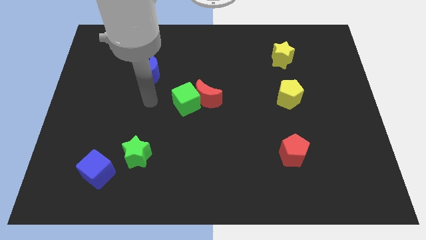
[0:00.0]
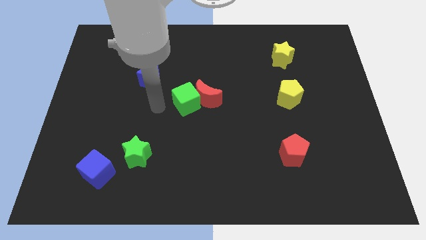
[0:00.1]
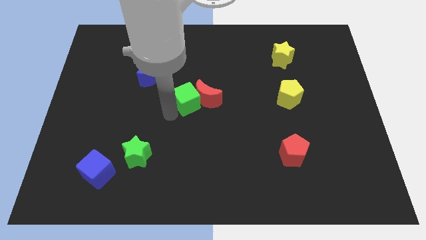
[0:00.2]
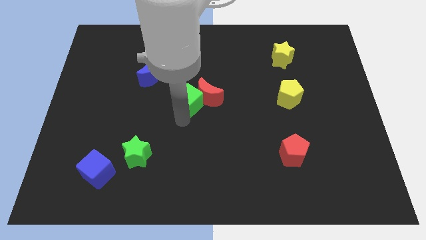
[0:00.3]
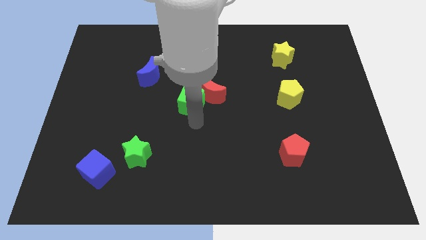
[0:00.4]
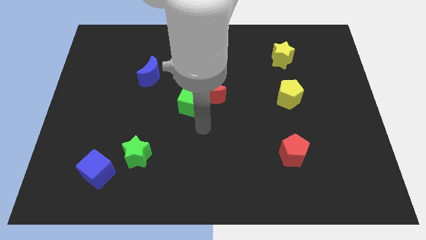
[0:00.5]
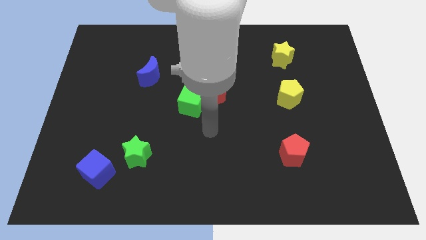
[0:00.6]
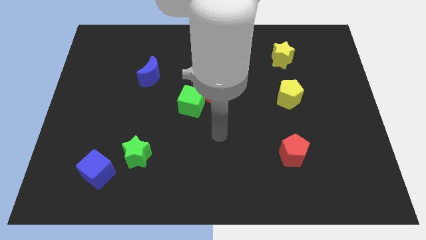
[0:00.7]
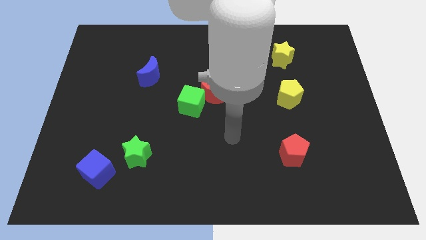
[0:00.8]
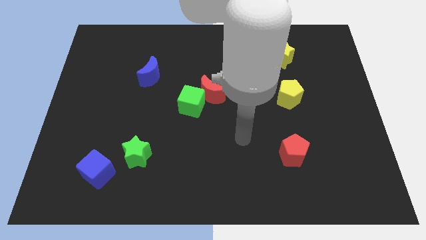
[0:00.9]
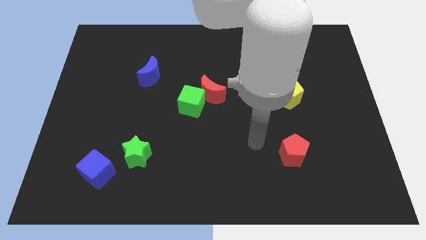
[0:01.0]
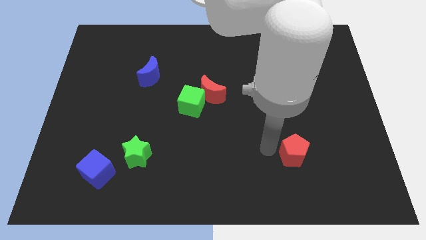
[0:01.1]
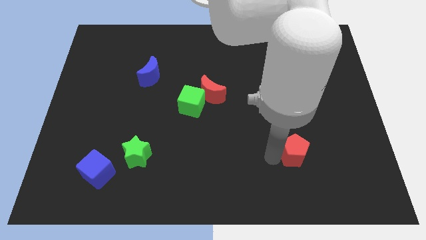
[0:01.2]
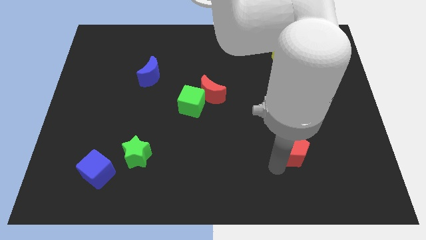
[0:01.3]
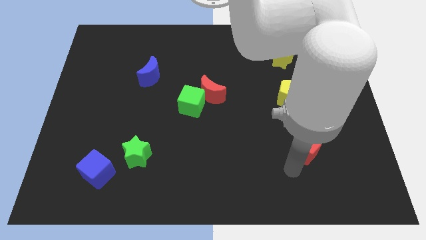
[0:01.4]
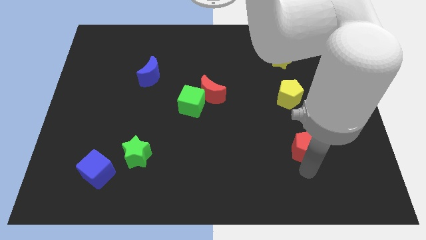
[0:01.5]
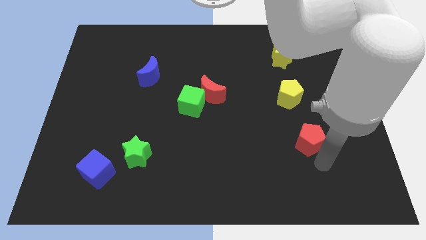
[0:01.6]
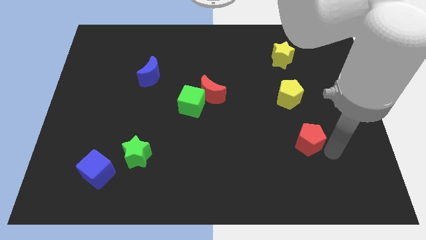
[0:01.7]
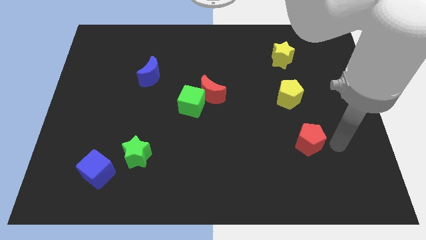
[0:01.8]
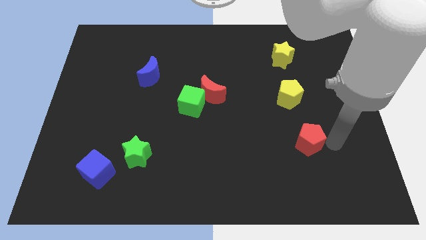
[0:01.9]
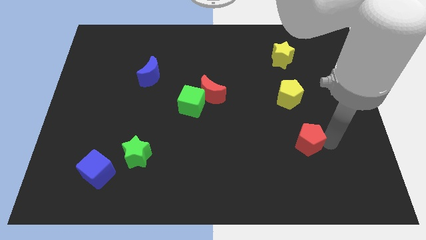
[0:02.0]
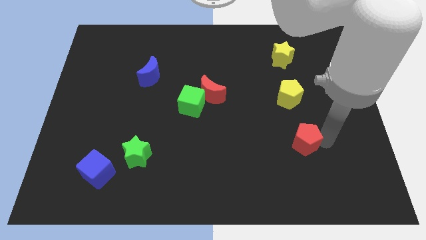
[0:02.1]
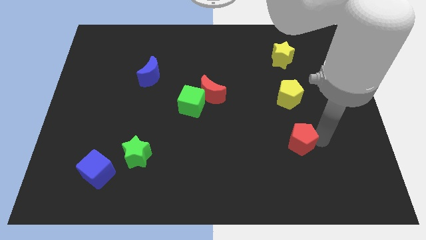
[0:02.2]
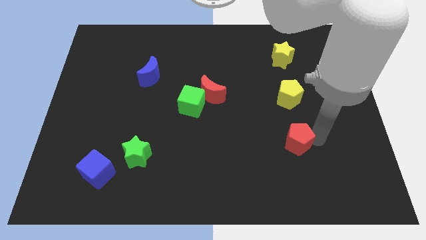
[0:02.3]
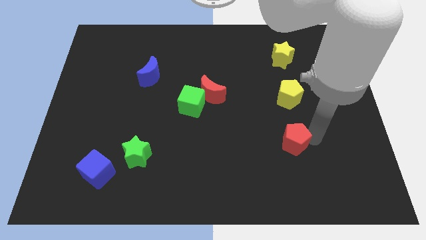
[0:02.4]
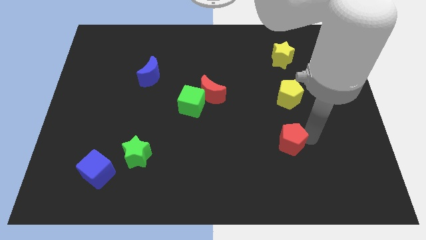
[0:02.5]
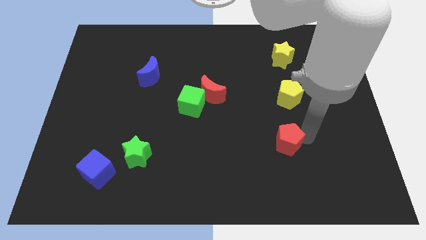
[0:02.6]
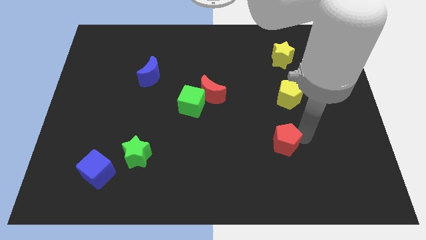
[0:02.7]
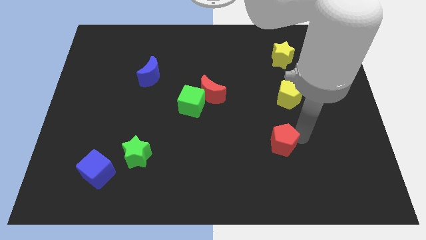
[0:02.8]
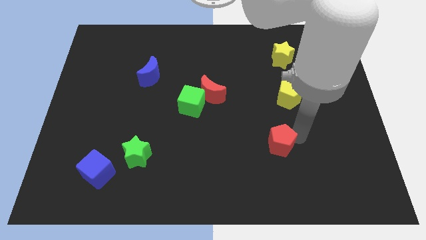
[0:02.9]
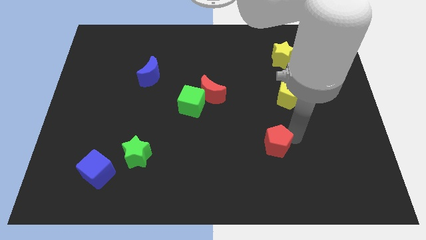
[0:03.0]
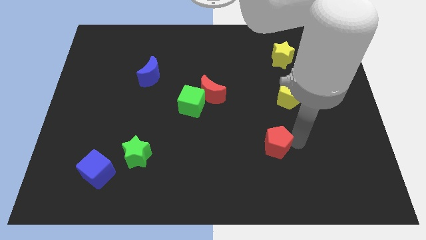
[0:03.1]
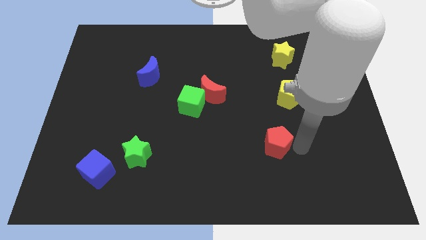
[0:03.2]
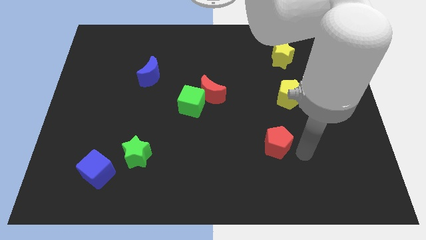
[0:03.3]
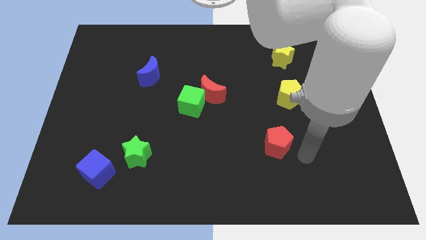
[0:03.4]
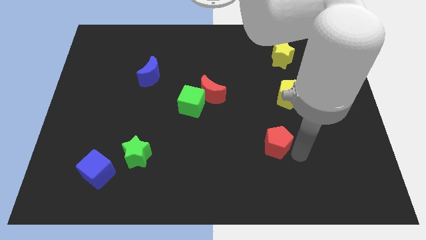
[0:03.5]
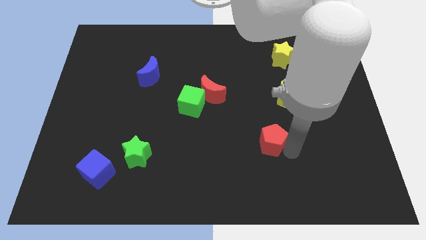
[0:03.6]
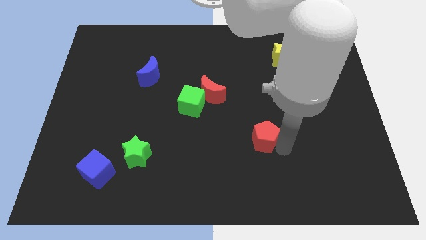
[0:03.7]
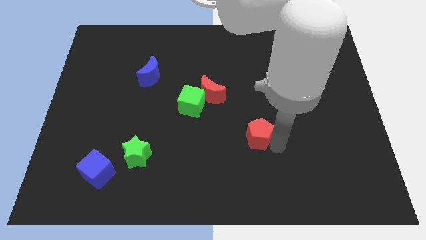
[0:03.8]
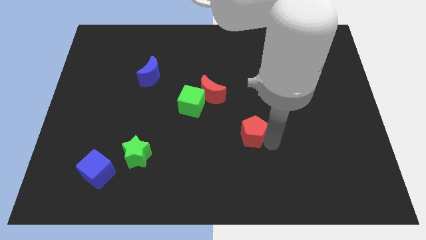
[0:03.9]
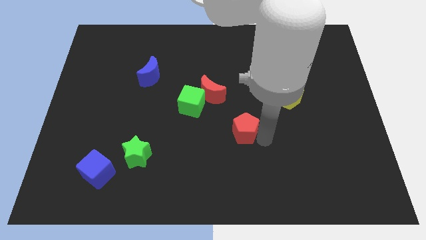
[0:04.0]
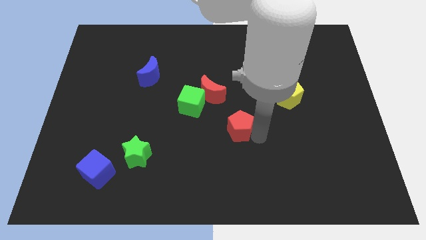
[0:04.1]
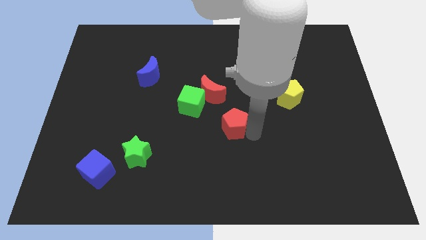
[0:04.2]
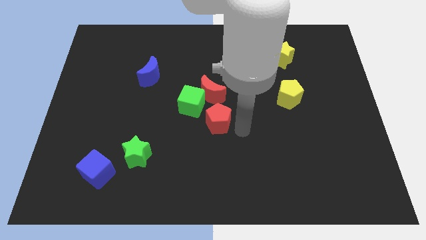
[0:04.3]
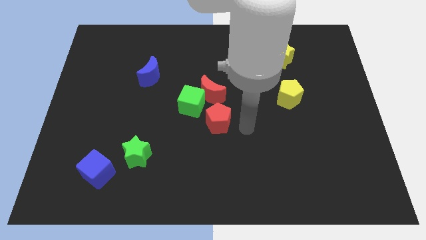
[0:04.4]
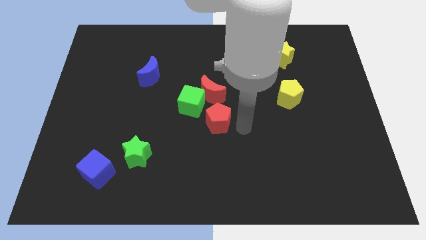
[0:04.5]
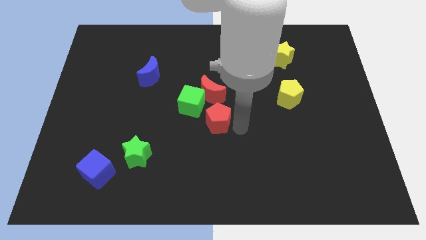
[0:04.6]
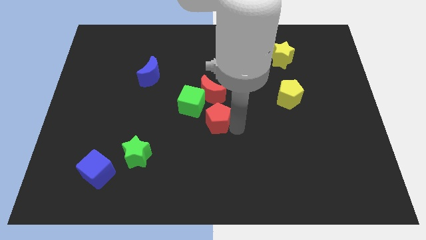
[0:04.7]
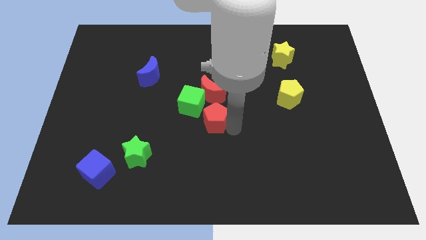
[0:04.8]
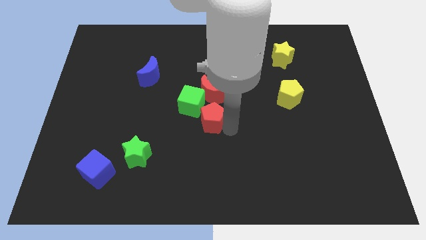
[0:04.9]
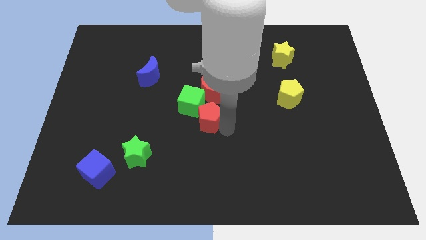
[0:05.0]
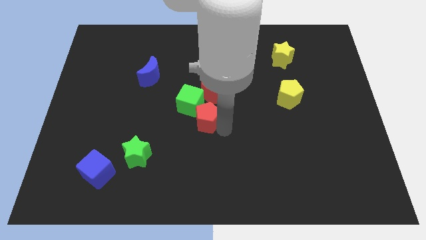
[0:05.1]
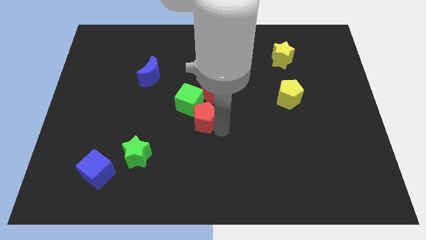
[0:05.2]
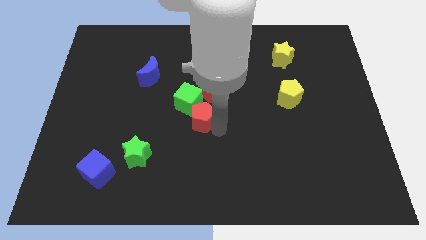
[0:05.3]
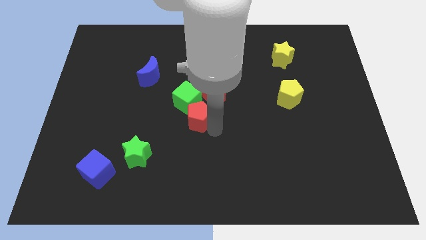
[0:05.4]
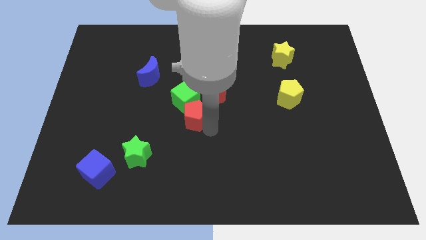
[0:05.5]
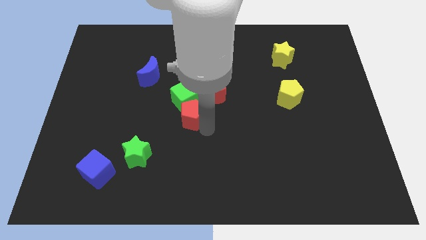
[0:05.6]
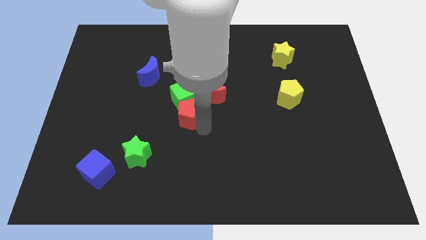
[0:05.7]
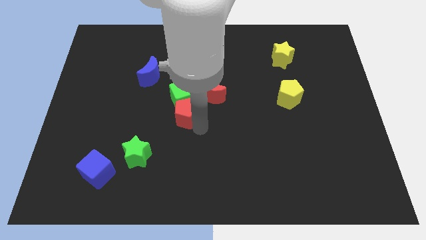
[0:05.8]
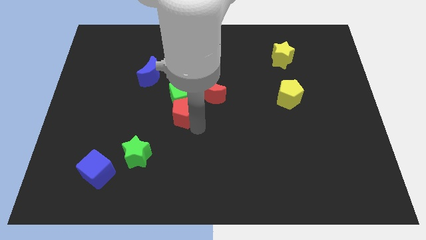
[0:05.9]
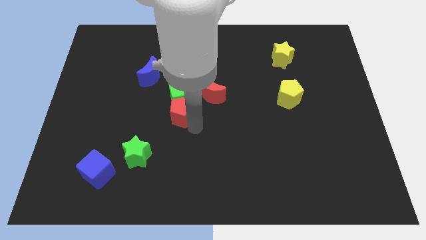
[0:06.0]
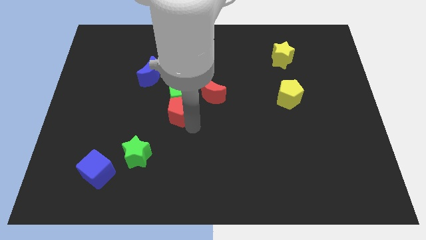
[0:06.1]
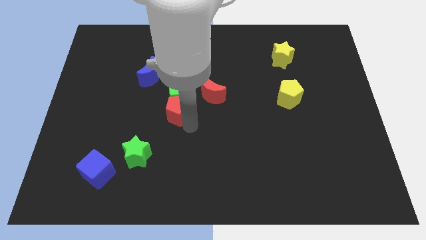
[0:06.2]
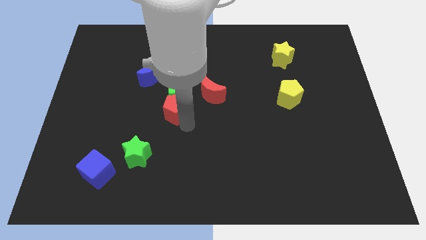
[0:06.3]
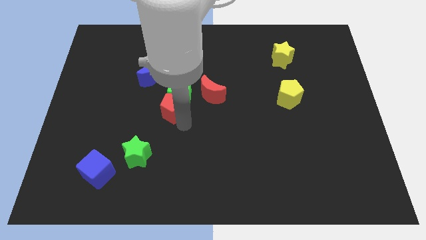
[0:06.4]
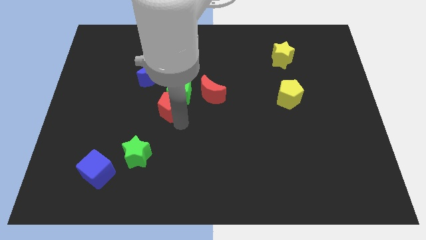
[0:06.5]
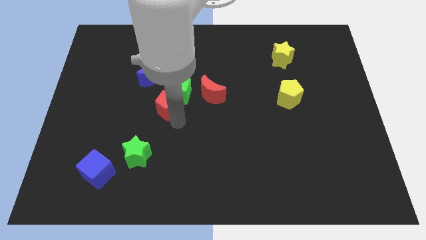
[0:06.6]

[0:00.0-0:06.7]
move the red pentagon to the bottom right side of the blue moon

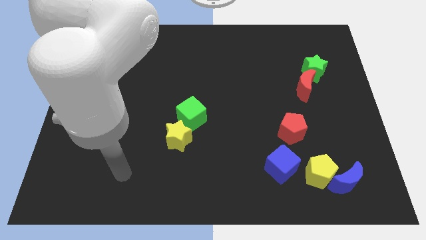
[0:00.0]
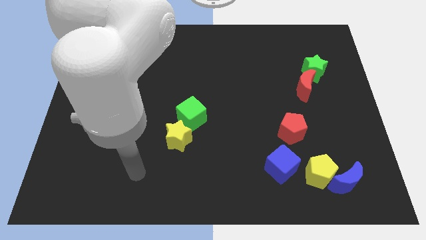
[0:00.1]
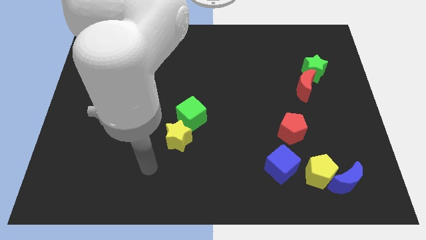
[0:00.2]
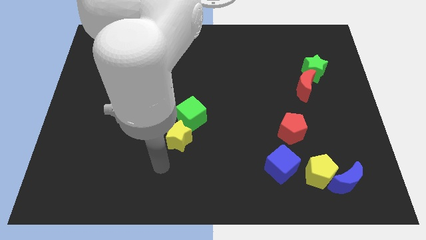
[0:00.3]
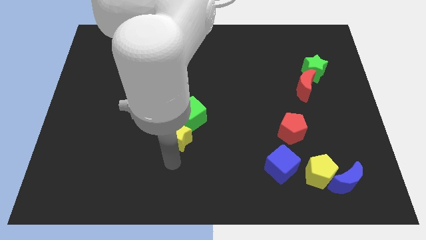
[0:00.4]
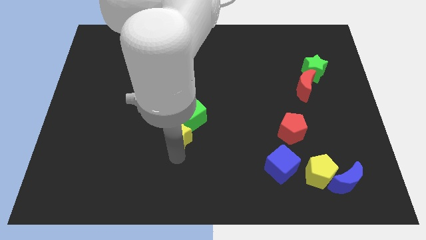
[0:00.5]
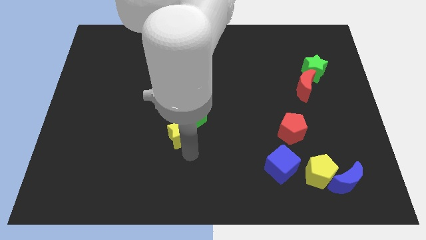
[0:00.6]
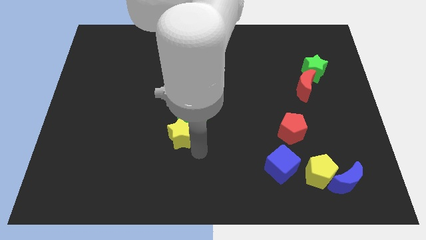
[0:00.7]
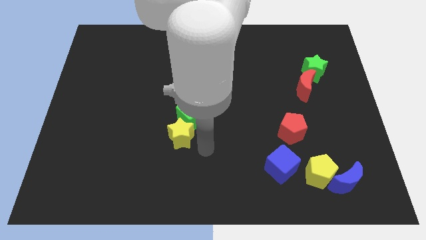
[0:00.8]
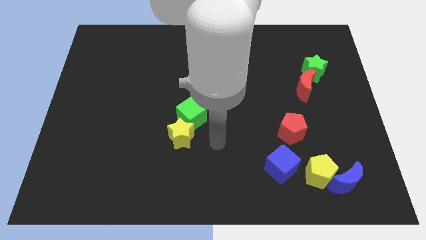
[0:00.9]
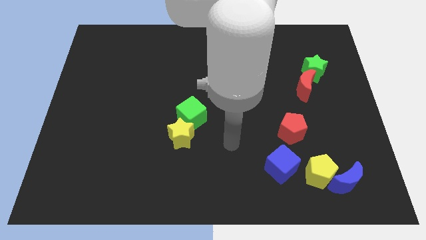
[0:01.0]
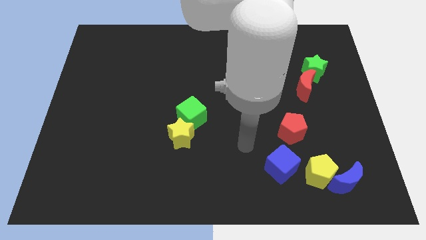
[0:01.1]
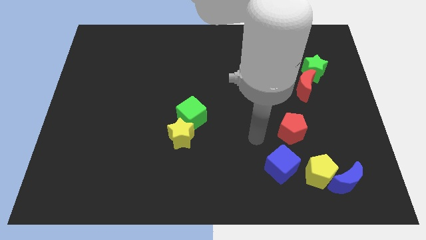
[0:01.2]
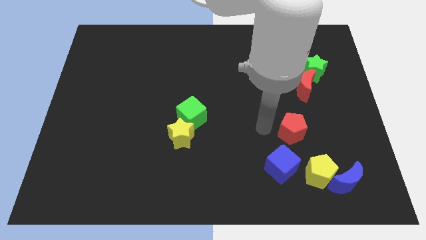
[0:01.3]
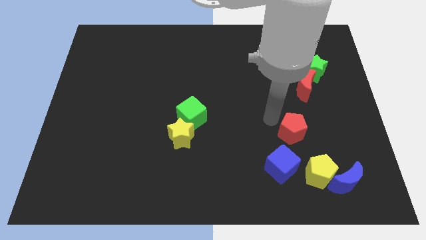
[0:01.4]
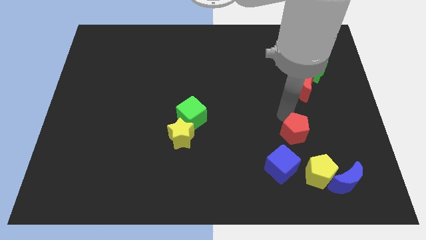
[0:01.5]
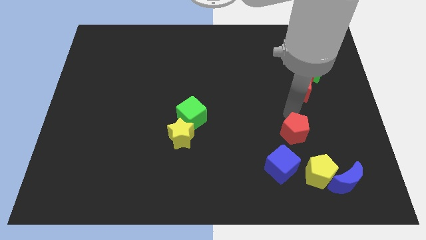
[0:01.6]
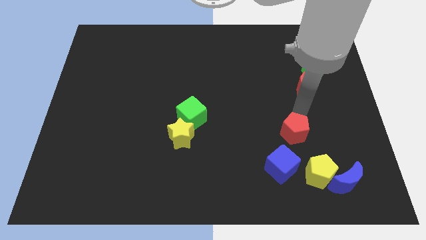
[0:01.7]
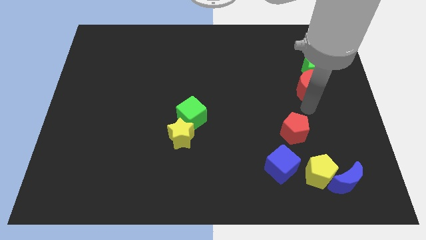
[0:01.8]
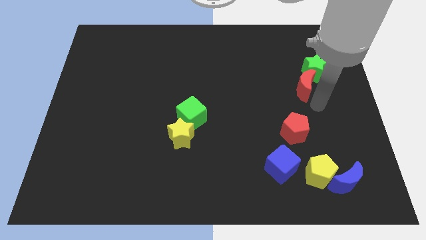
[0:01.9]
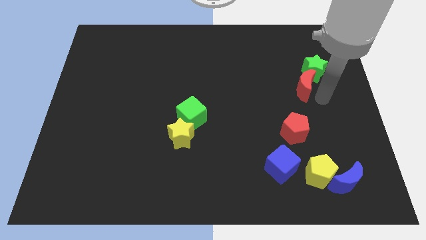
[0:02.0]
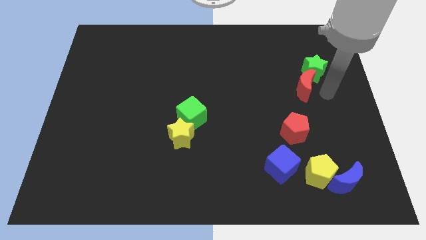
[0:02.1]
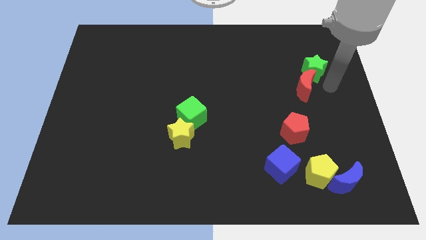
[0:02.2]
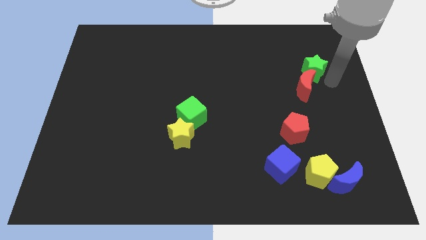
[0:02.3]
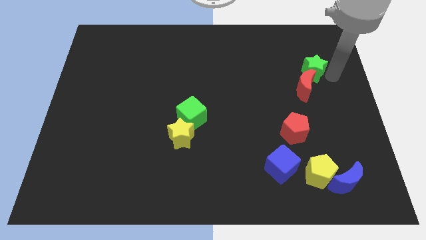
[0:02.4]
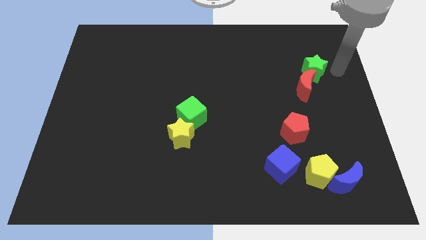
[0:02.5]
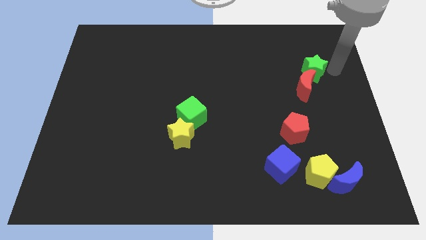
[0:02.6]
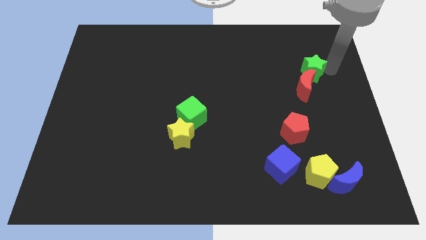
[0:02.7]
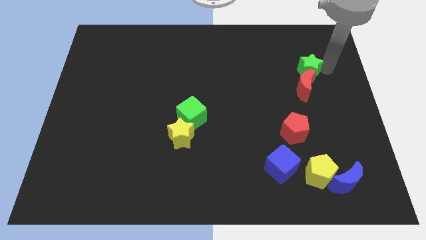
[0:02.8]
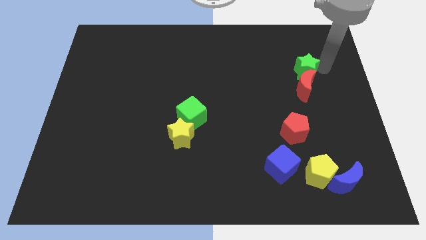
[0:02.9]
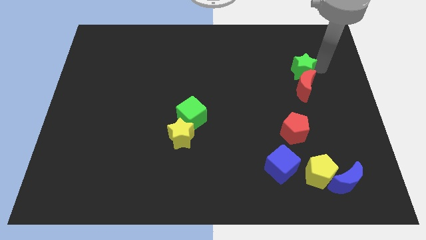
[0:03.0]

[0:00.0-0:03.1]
push the green star to the top left side of the red moon
